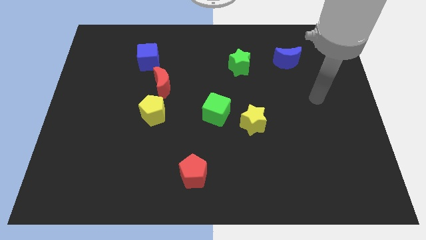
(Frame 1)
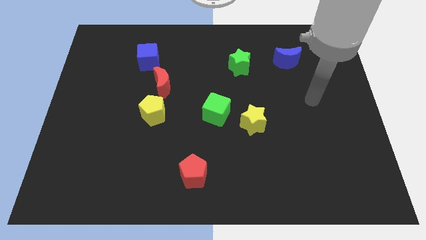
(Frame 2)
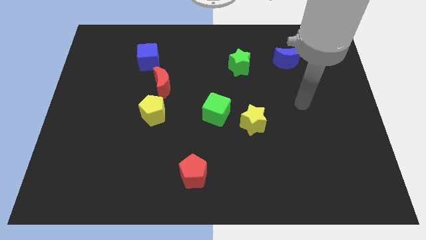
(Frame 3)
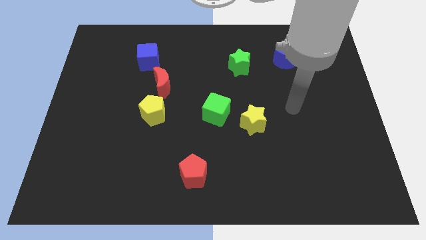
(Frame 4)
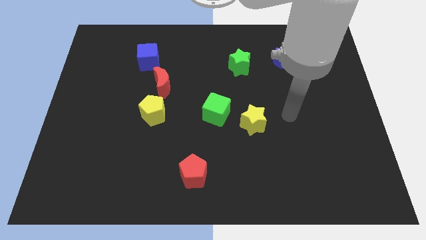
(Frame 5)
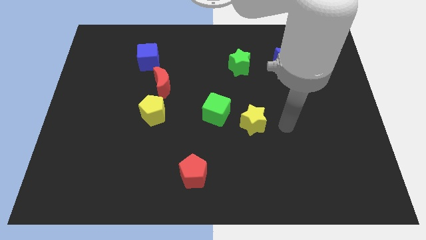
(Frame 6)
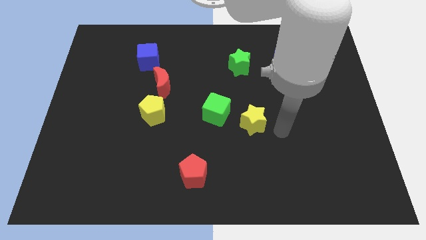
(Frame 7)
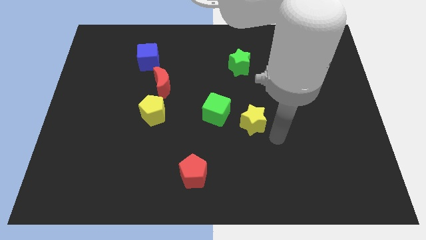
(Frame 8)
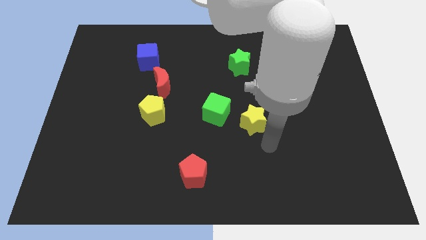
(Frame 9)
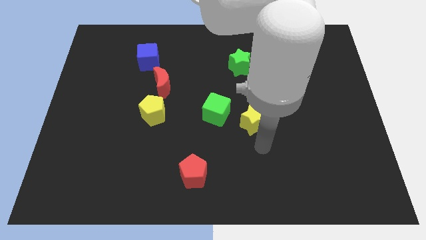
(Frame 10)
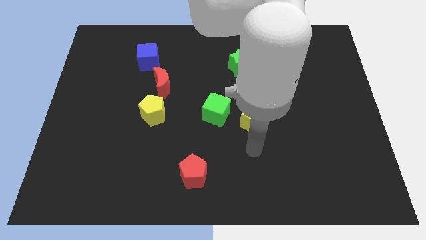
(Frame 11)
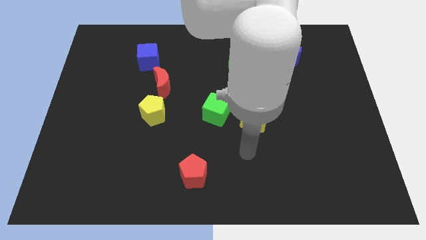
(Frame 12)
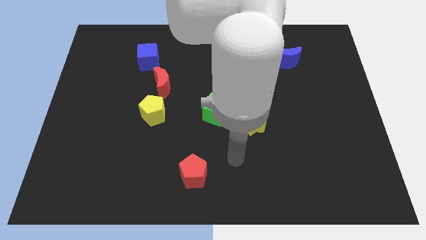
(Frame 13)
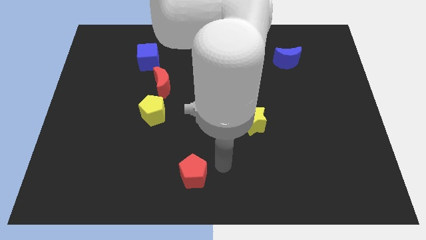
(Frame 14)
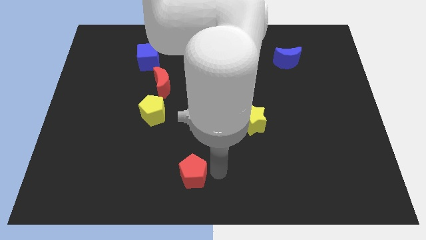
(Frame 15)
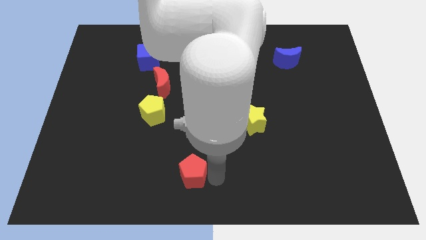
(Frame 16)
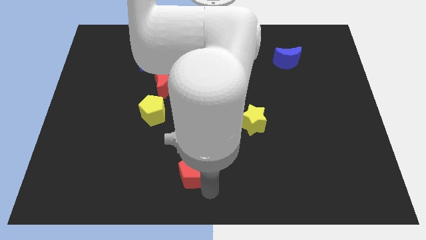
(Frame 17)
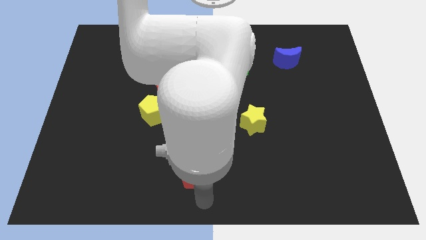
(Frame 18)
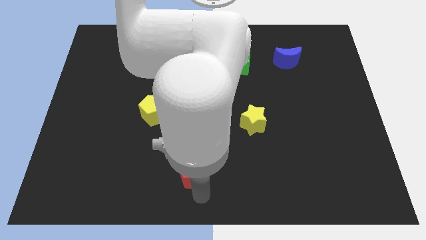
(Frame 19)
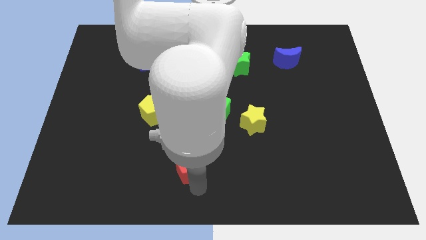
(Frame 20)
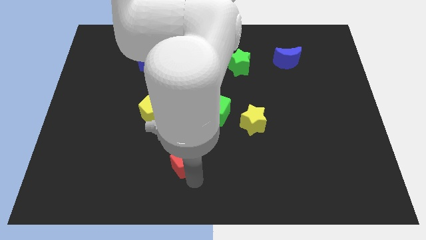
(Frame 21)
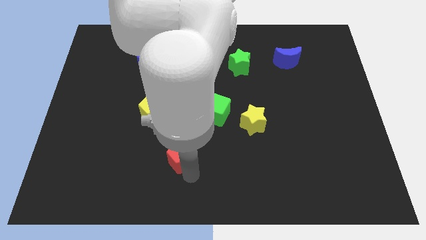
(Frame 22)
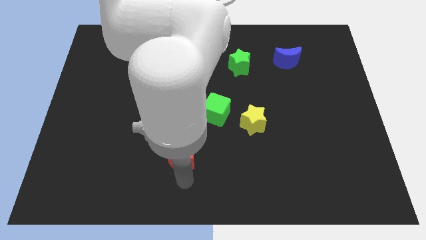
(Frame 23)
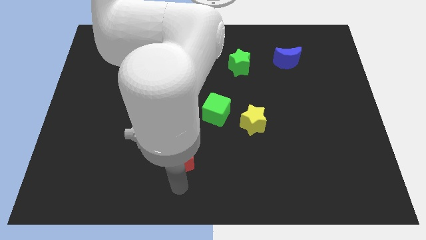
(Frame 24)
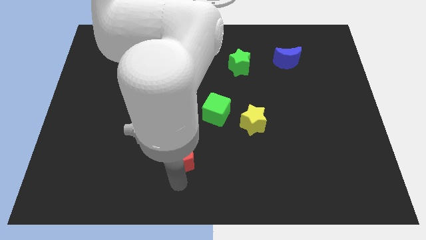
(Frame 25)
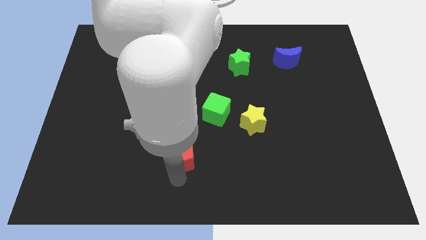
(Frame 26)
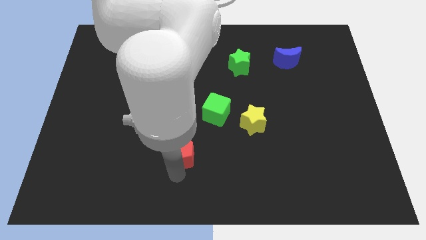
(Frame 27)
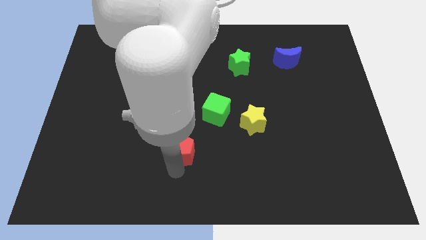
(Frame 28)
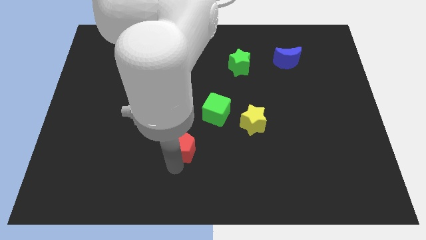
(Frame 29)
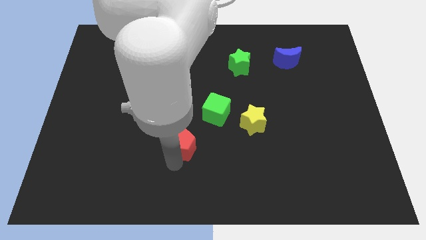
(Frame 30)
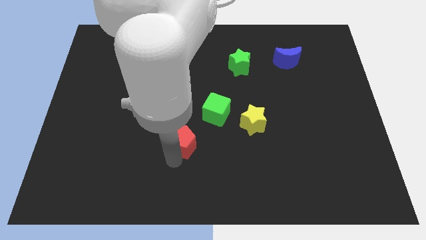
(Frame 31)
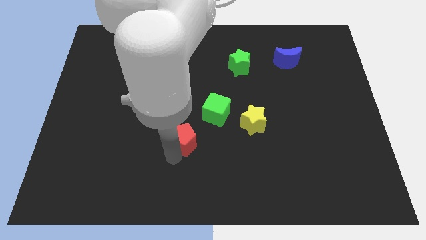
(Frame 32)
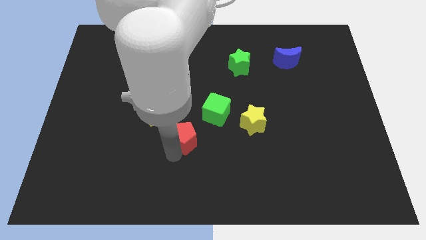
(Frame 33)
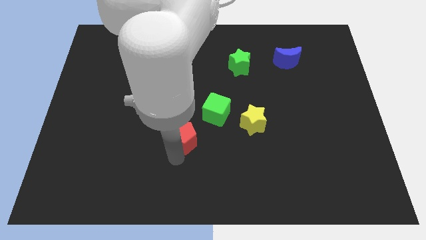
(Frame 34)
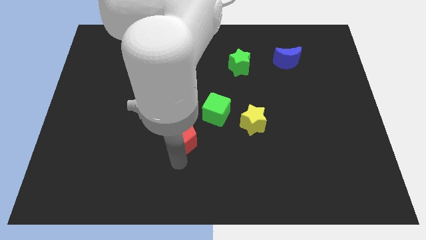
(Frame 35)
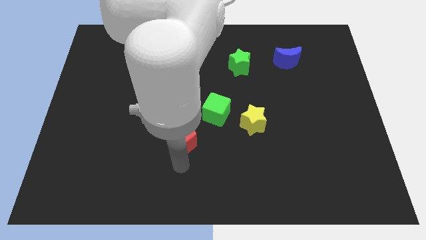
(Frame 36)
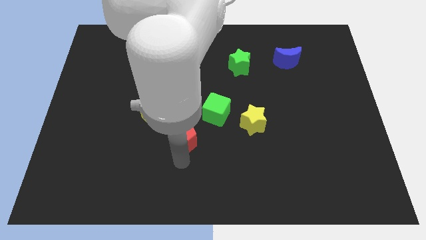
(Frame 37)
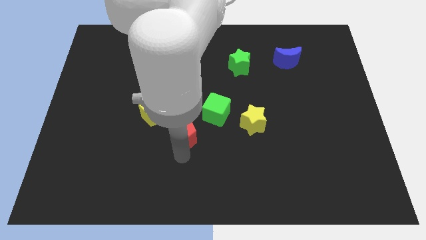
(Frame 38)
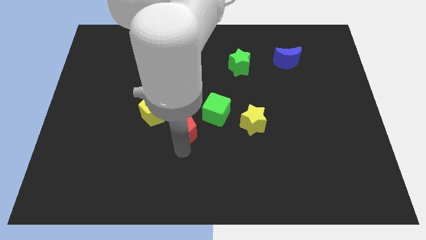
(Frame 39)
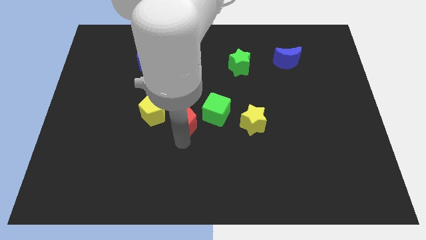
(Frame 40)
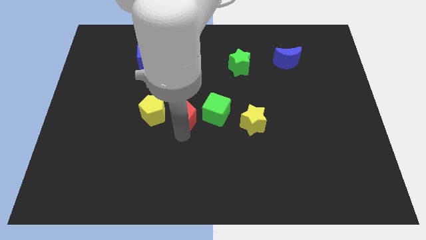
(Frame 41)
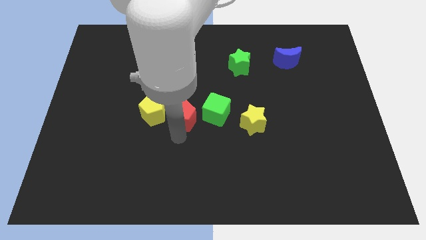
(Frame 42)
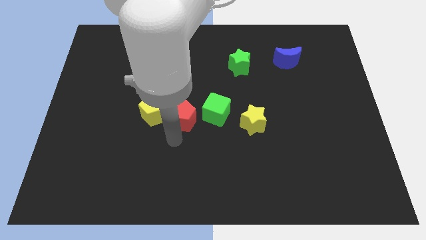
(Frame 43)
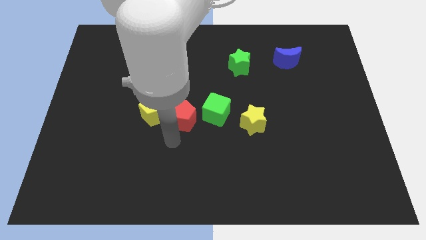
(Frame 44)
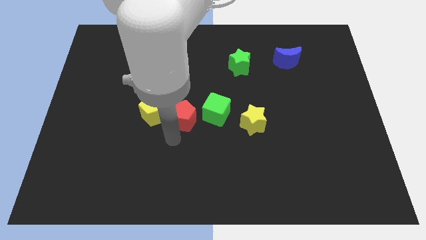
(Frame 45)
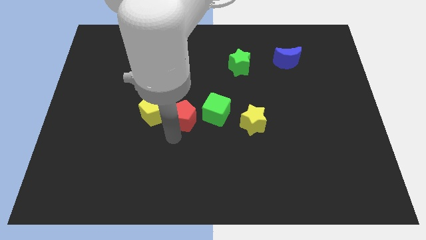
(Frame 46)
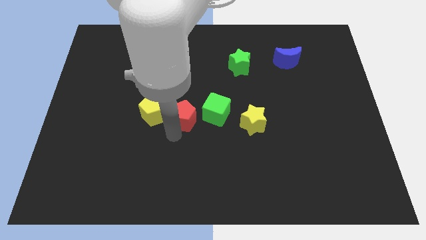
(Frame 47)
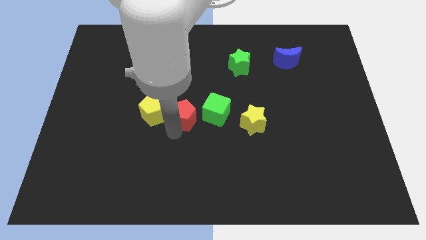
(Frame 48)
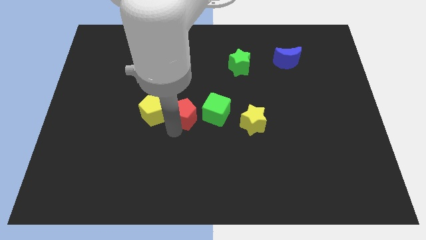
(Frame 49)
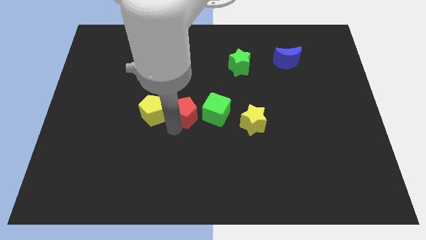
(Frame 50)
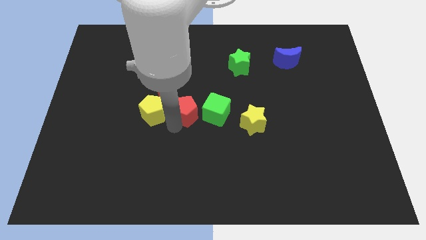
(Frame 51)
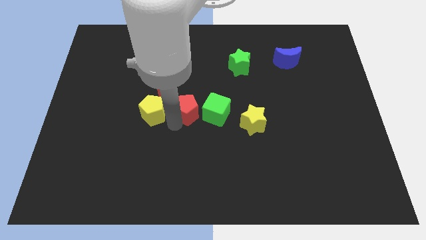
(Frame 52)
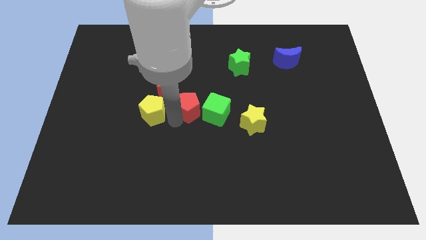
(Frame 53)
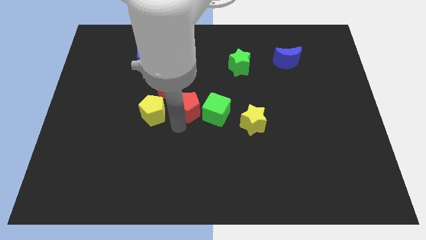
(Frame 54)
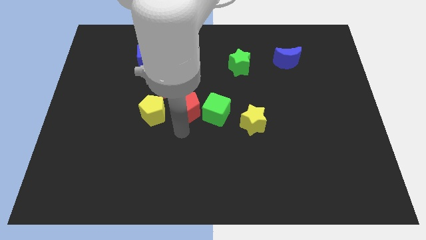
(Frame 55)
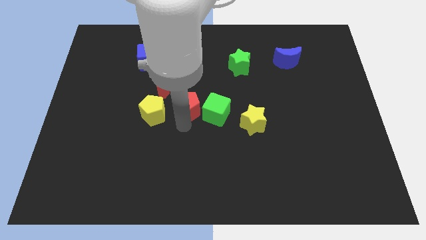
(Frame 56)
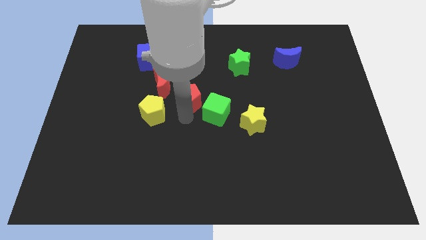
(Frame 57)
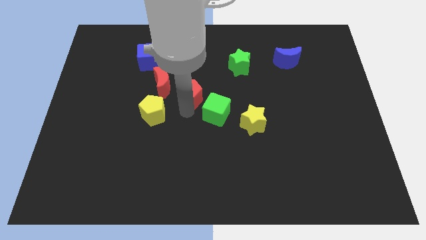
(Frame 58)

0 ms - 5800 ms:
push the red pentagon upwards

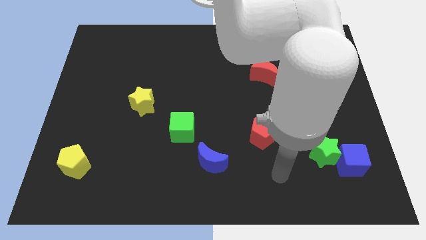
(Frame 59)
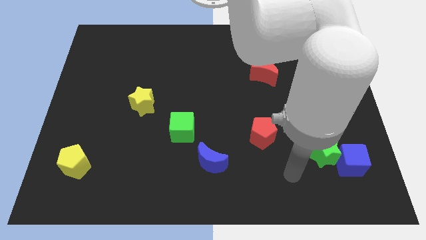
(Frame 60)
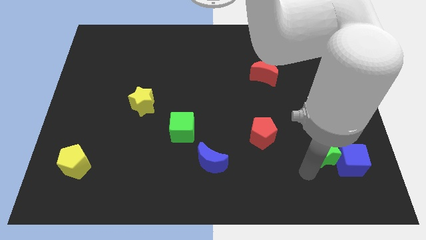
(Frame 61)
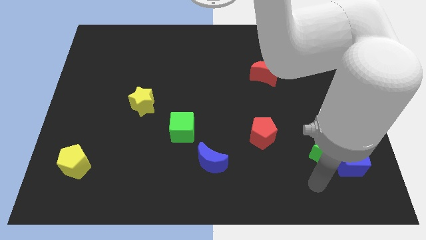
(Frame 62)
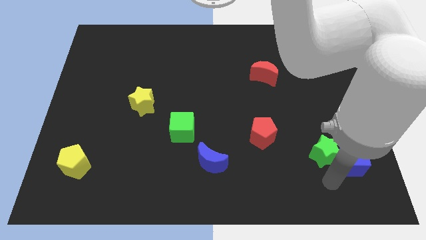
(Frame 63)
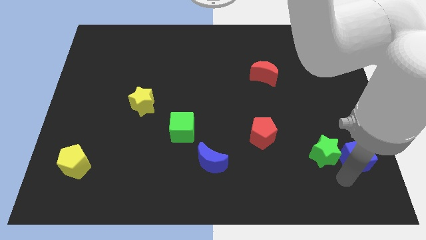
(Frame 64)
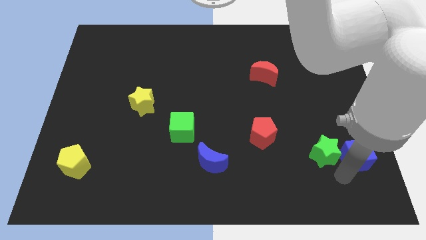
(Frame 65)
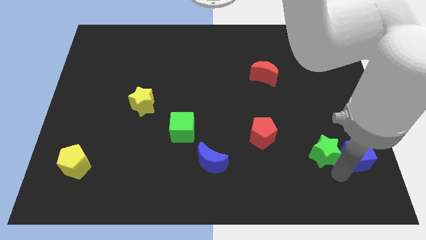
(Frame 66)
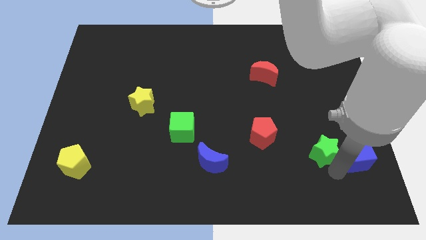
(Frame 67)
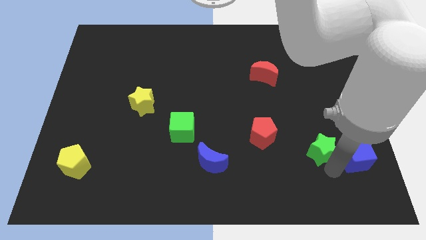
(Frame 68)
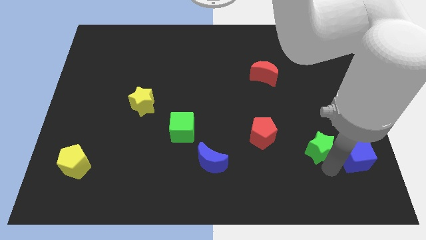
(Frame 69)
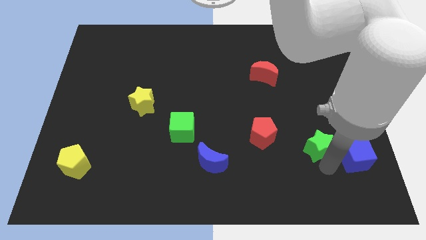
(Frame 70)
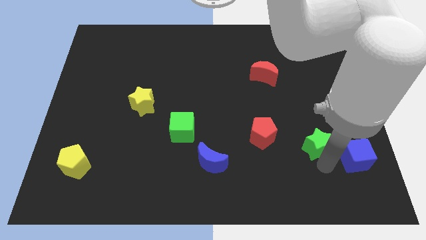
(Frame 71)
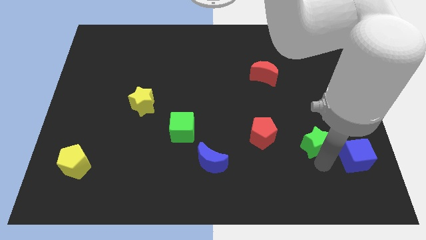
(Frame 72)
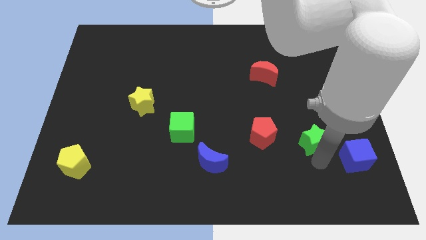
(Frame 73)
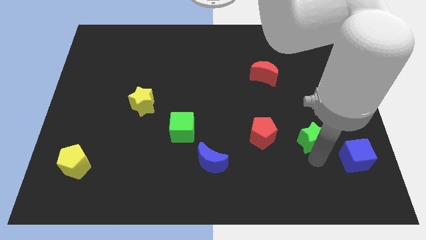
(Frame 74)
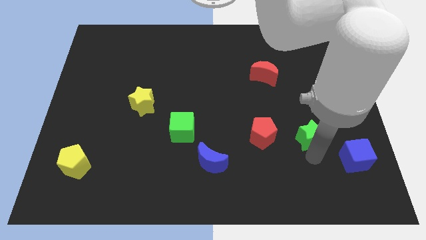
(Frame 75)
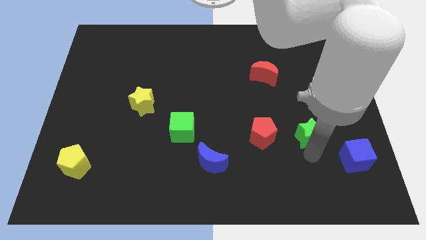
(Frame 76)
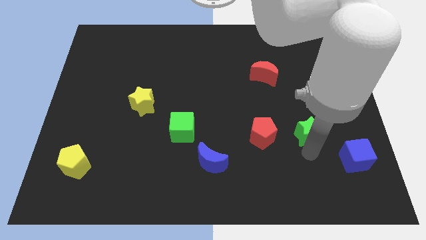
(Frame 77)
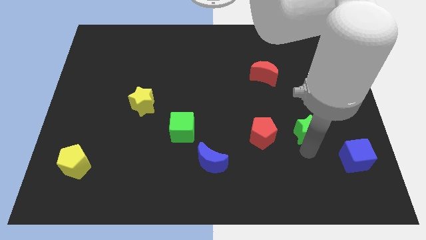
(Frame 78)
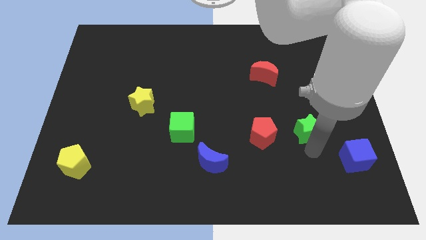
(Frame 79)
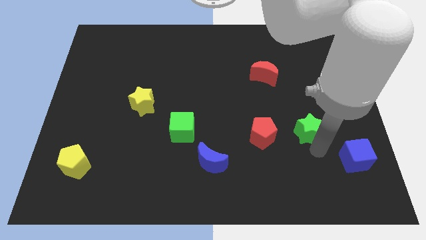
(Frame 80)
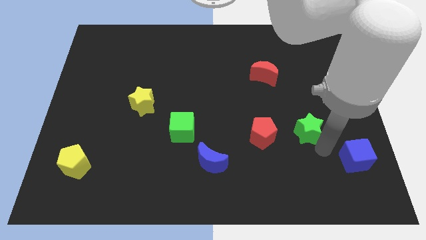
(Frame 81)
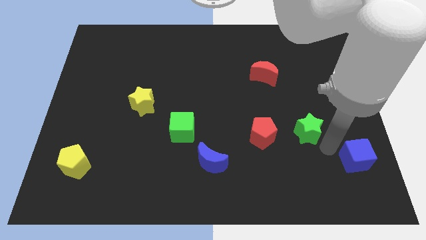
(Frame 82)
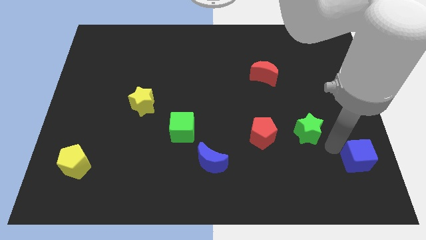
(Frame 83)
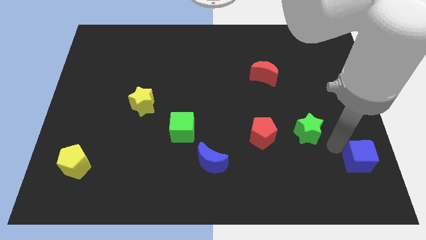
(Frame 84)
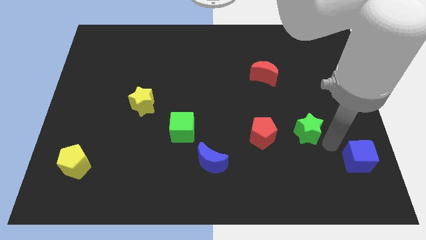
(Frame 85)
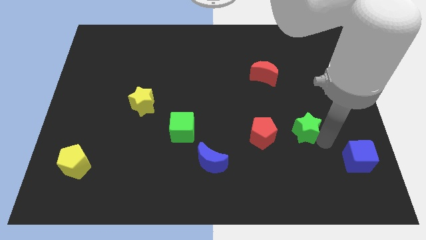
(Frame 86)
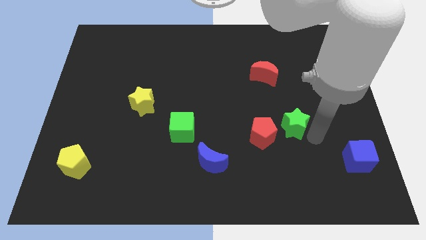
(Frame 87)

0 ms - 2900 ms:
slide the green star somewhat upwards and left diagonally
